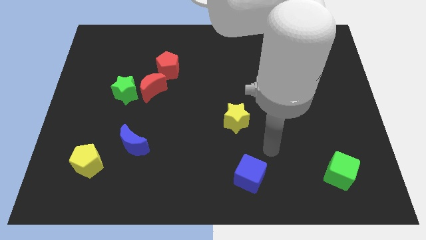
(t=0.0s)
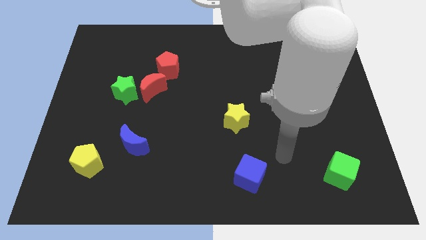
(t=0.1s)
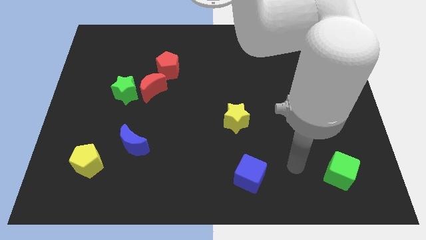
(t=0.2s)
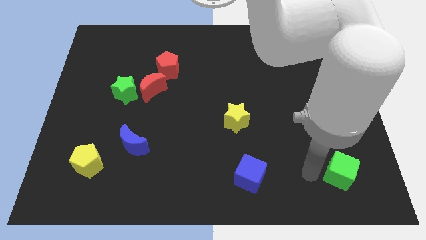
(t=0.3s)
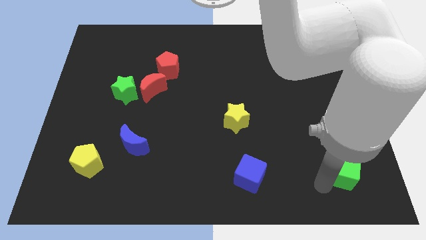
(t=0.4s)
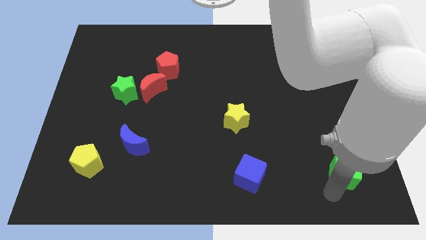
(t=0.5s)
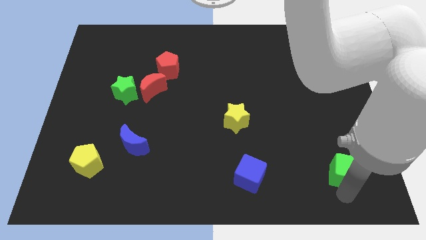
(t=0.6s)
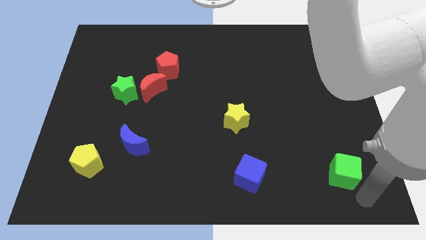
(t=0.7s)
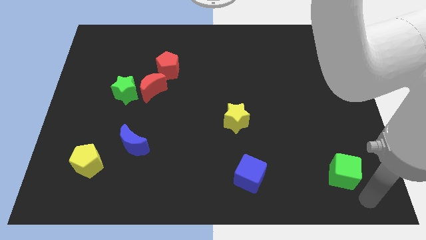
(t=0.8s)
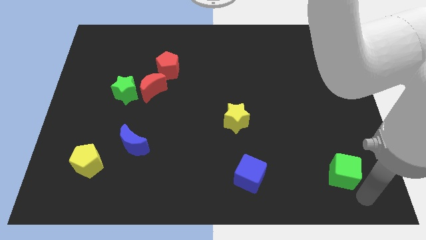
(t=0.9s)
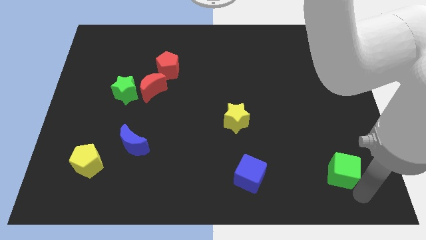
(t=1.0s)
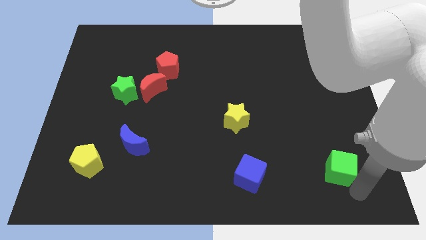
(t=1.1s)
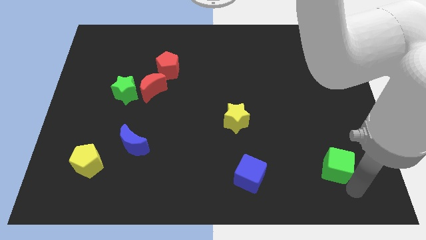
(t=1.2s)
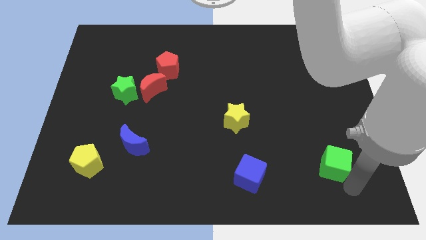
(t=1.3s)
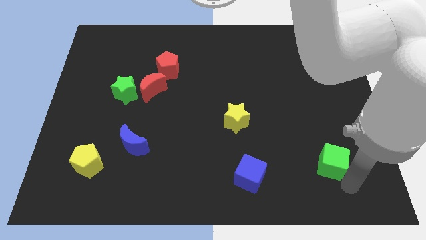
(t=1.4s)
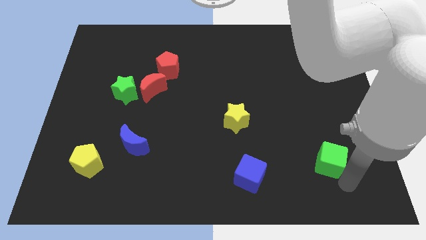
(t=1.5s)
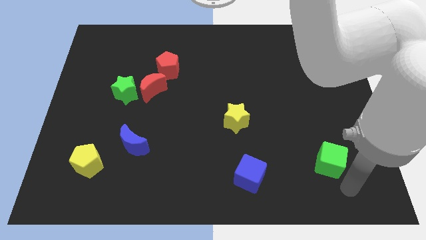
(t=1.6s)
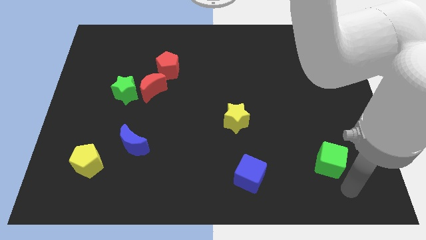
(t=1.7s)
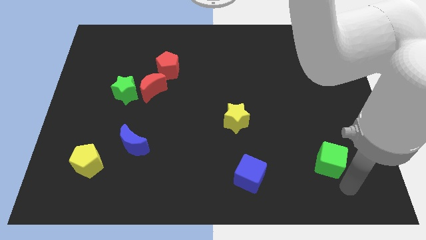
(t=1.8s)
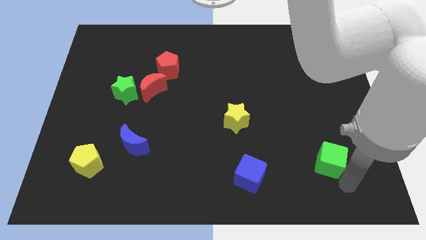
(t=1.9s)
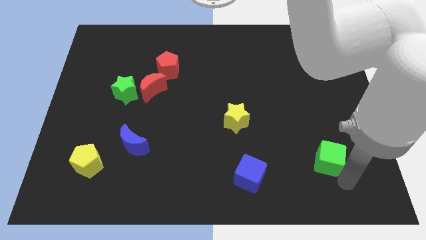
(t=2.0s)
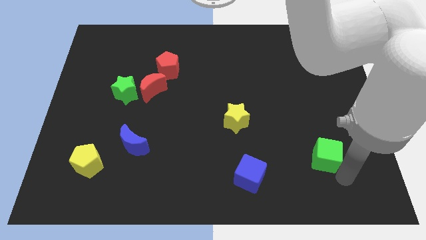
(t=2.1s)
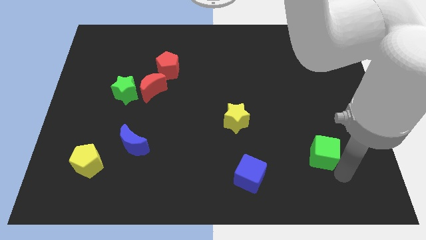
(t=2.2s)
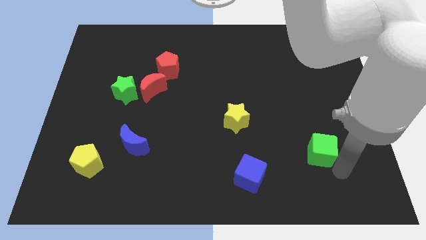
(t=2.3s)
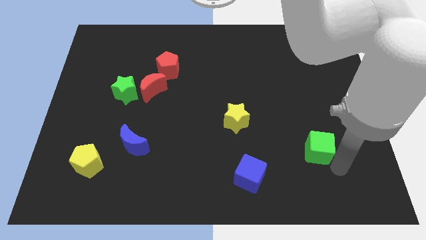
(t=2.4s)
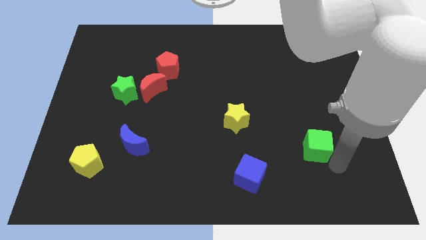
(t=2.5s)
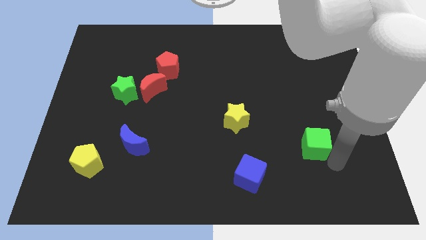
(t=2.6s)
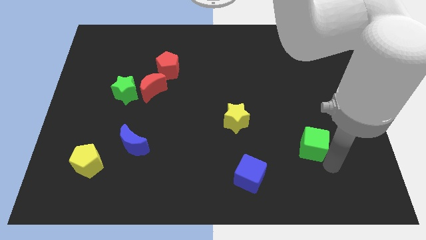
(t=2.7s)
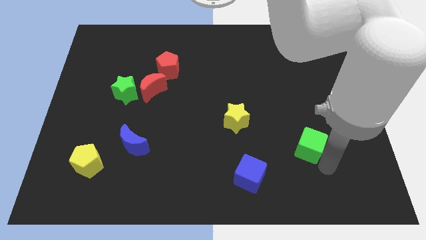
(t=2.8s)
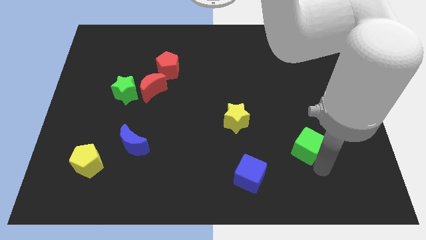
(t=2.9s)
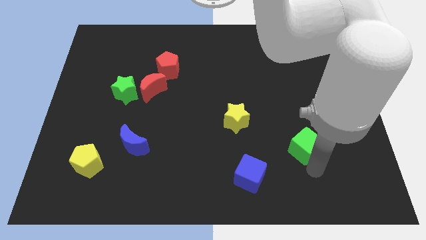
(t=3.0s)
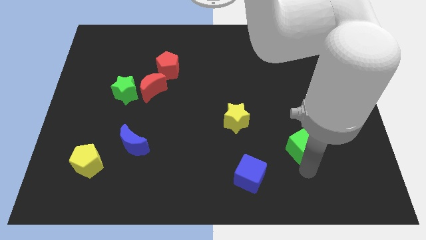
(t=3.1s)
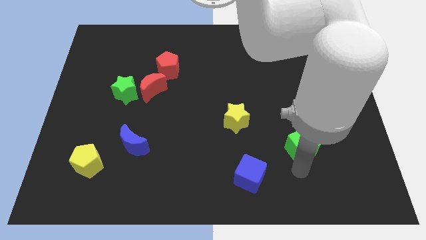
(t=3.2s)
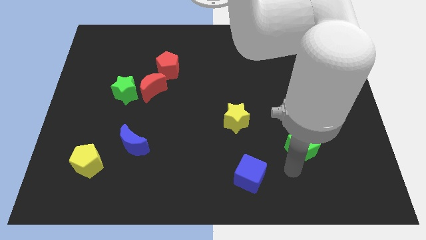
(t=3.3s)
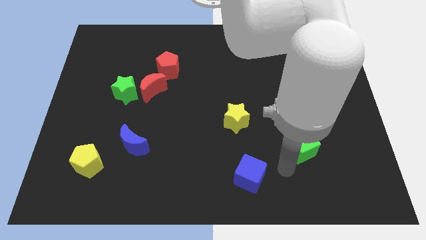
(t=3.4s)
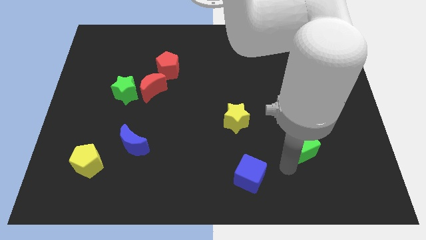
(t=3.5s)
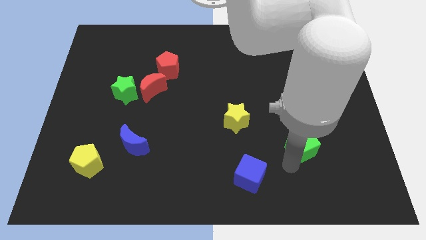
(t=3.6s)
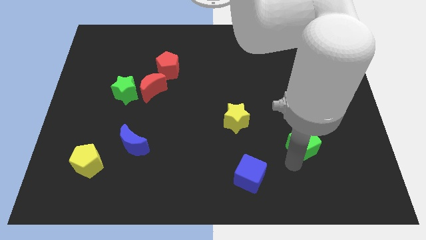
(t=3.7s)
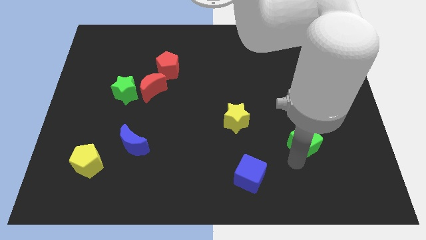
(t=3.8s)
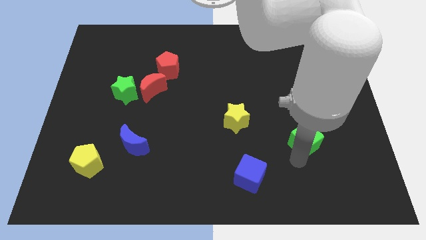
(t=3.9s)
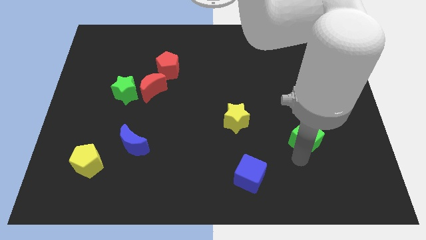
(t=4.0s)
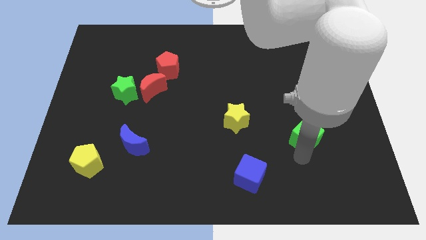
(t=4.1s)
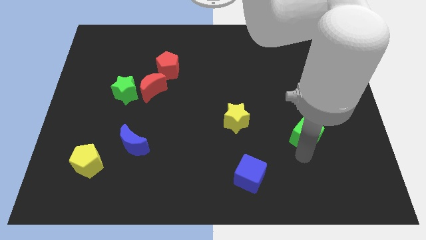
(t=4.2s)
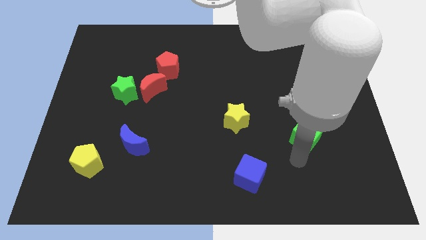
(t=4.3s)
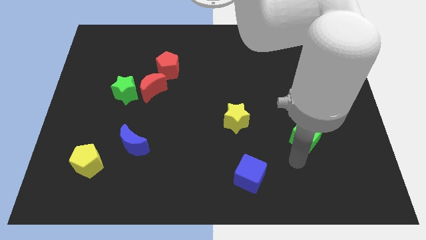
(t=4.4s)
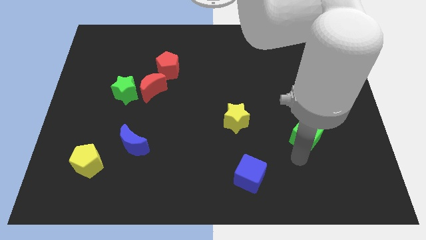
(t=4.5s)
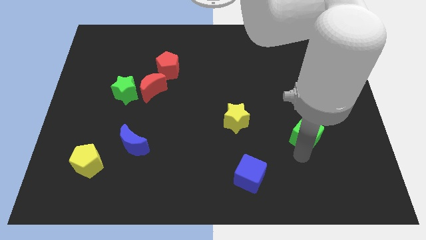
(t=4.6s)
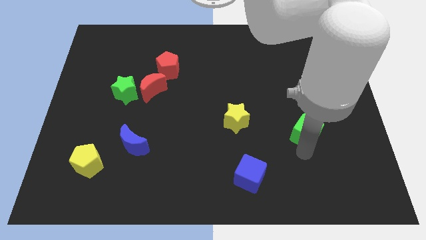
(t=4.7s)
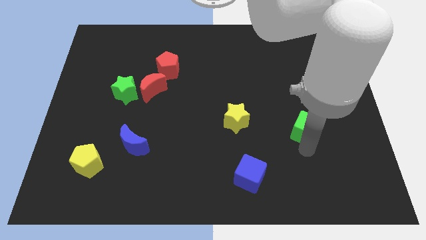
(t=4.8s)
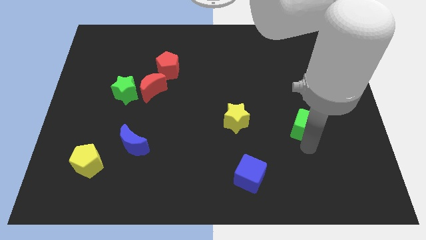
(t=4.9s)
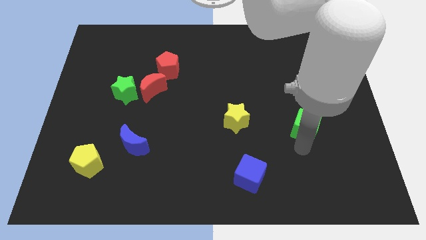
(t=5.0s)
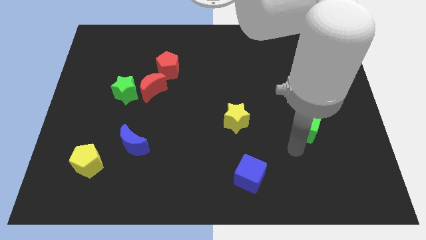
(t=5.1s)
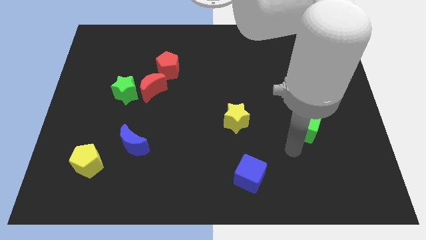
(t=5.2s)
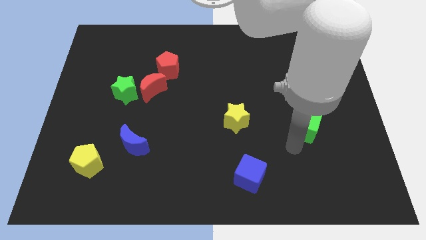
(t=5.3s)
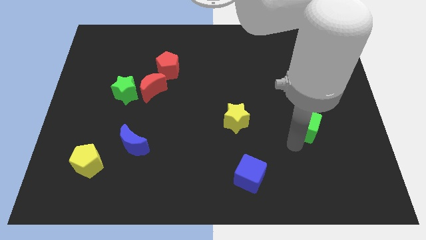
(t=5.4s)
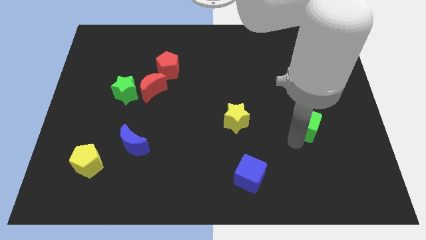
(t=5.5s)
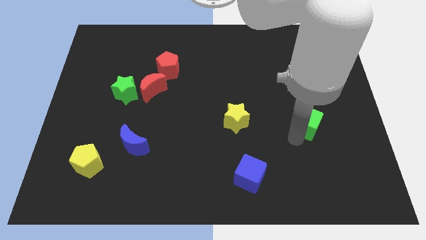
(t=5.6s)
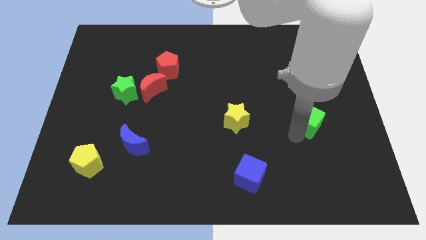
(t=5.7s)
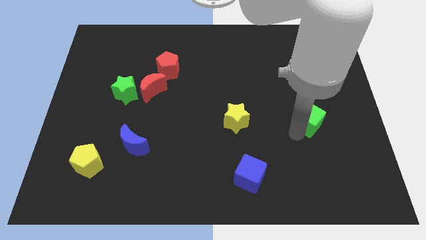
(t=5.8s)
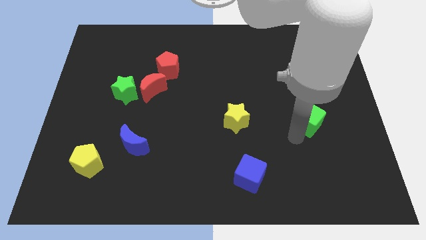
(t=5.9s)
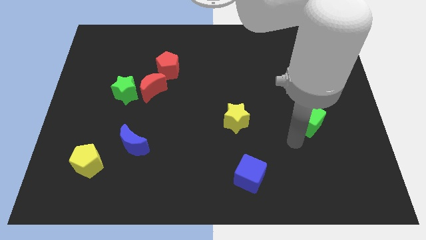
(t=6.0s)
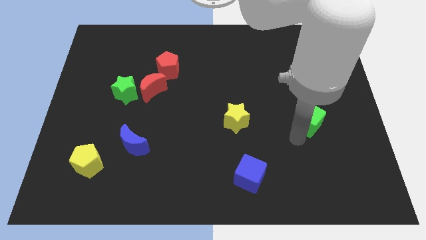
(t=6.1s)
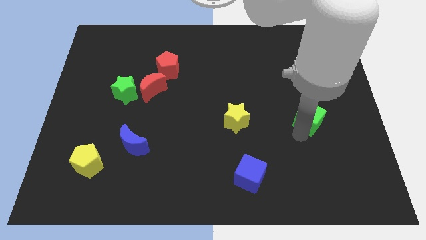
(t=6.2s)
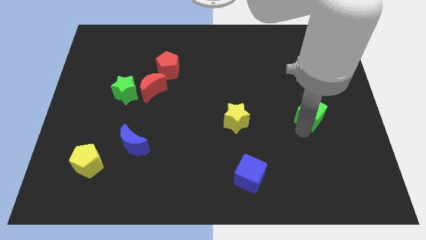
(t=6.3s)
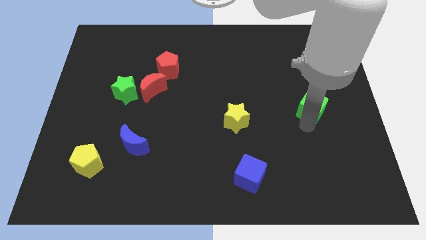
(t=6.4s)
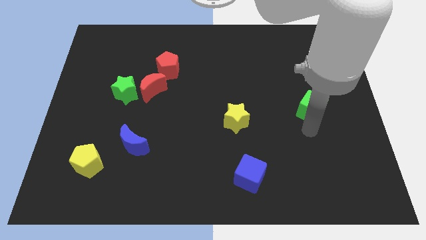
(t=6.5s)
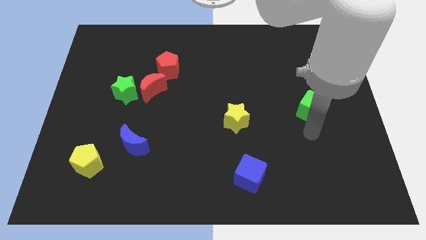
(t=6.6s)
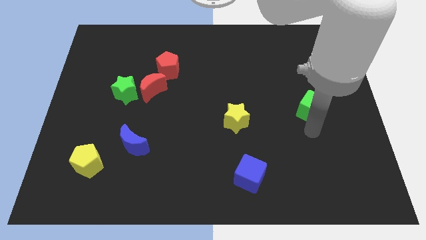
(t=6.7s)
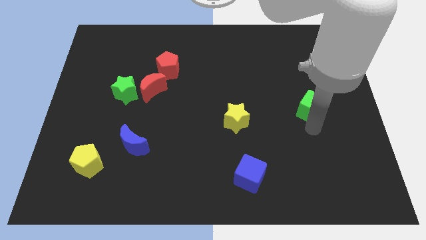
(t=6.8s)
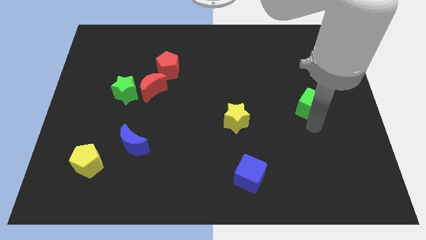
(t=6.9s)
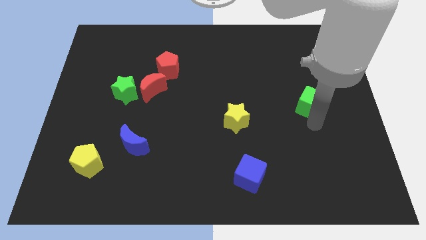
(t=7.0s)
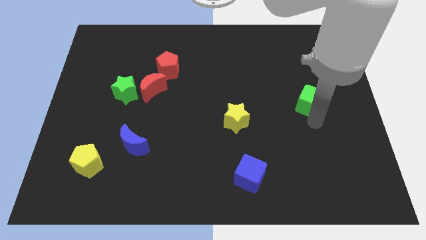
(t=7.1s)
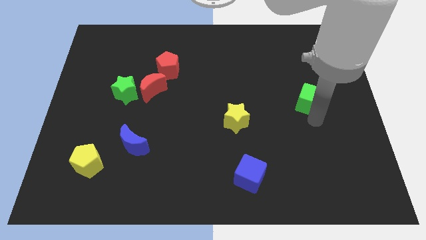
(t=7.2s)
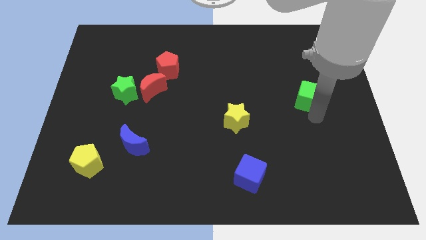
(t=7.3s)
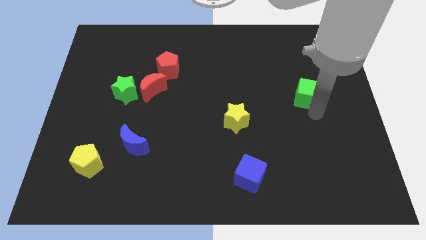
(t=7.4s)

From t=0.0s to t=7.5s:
push the green cube upwards

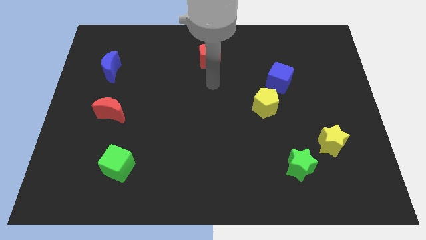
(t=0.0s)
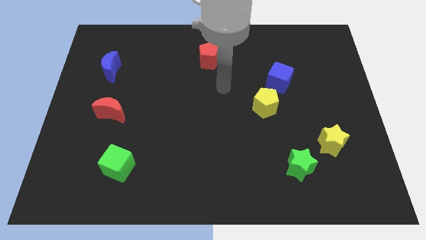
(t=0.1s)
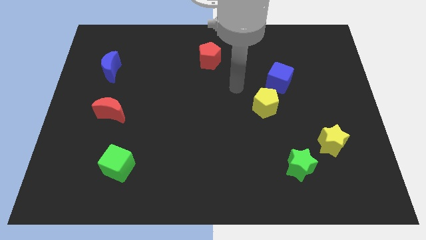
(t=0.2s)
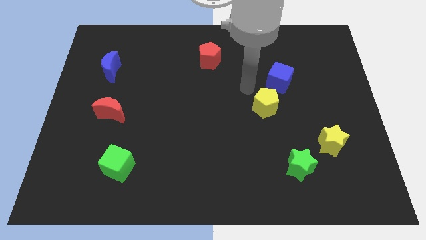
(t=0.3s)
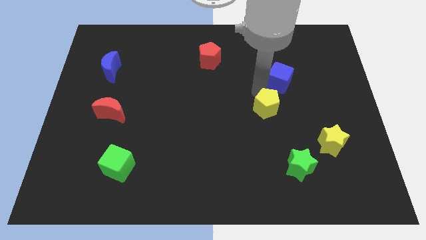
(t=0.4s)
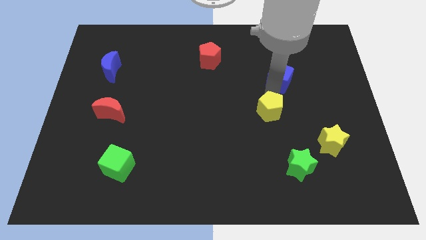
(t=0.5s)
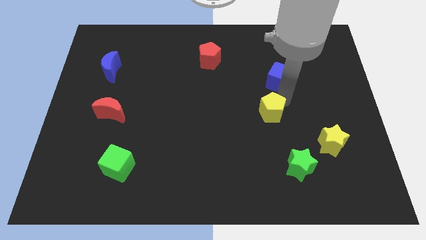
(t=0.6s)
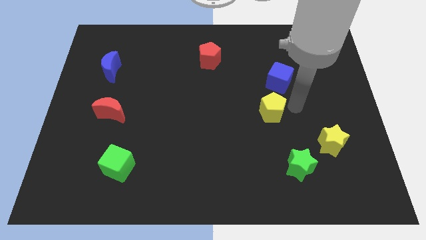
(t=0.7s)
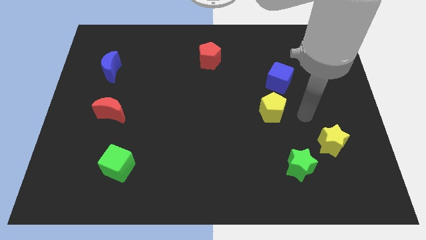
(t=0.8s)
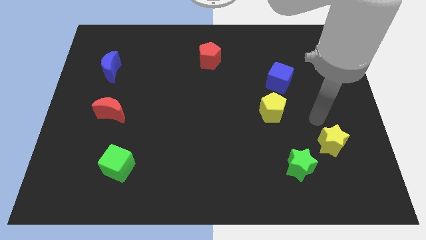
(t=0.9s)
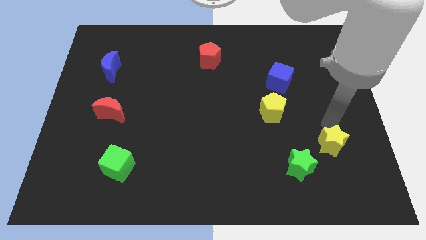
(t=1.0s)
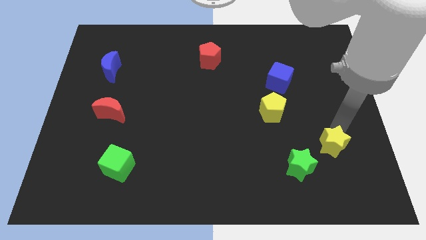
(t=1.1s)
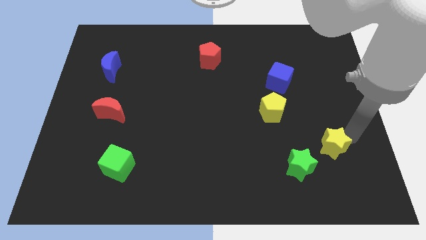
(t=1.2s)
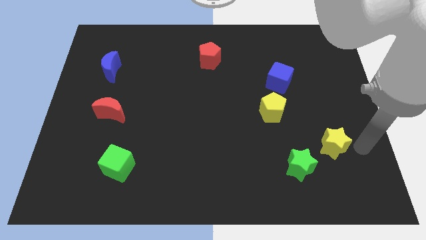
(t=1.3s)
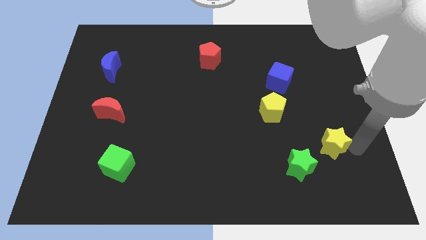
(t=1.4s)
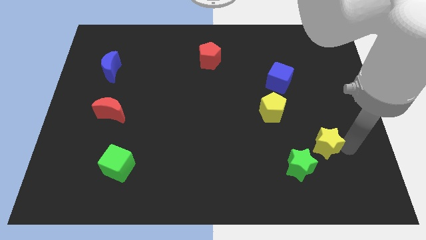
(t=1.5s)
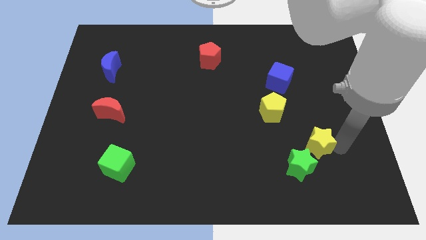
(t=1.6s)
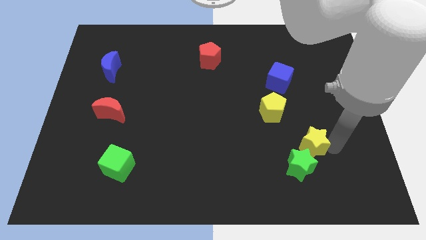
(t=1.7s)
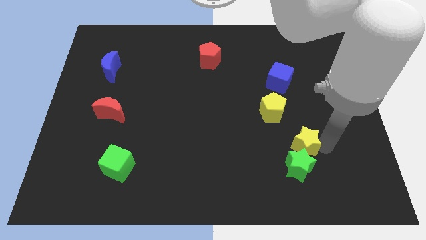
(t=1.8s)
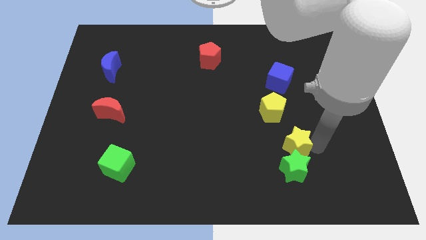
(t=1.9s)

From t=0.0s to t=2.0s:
move the yellow star left a little
